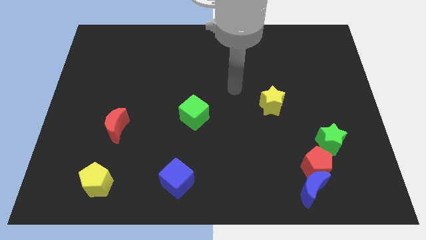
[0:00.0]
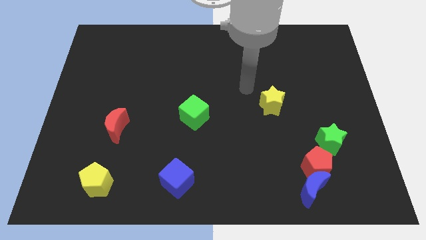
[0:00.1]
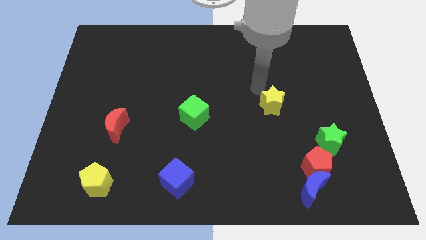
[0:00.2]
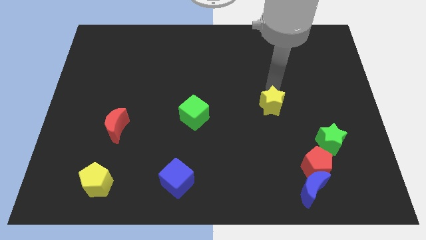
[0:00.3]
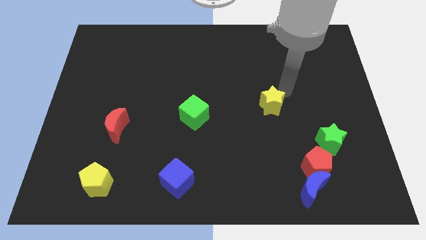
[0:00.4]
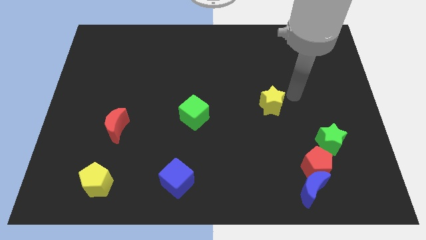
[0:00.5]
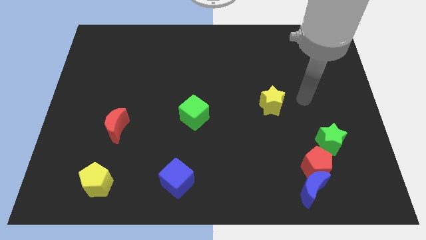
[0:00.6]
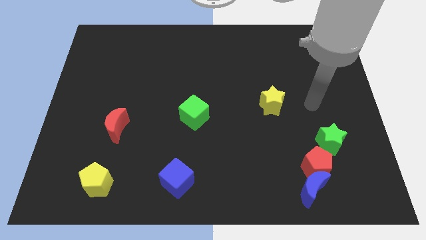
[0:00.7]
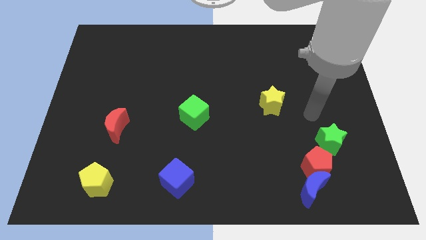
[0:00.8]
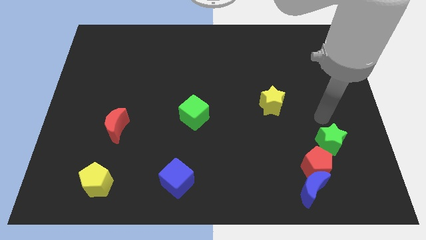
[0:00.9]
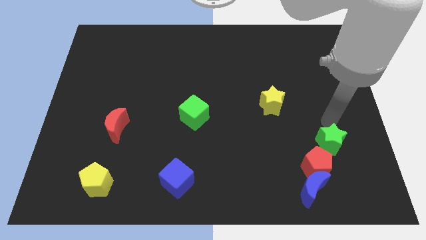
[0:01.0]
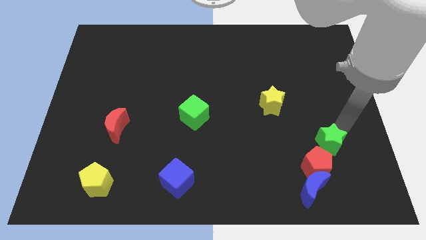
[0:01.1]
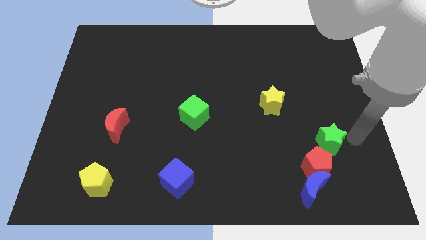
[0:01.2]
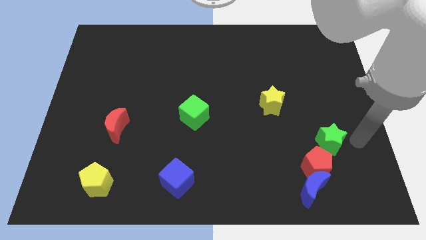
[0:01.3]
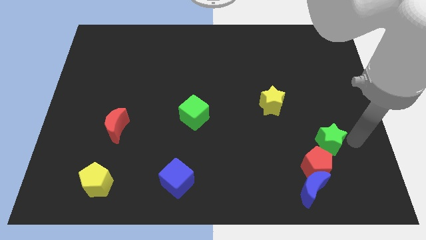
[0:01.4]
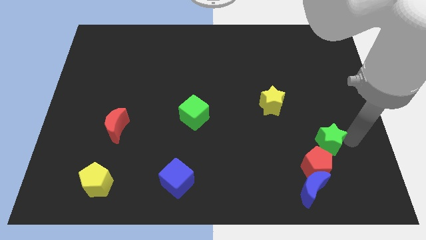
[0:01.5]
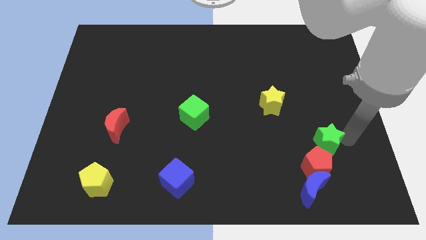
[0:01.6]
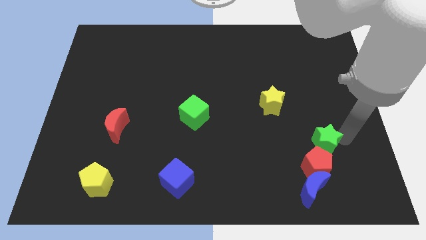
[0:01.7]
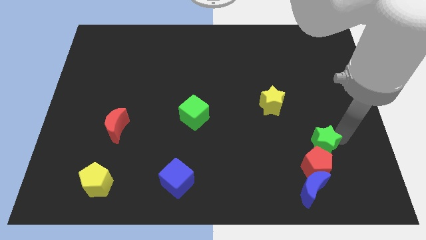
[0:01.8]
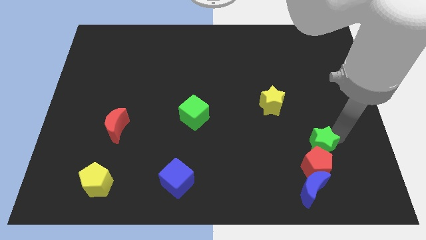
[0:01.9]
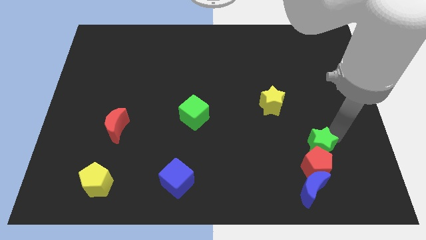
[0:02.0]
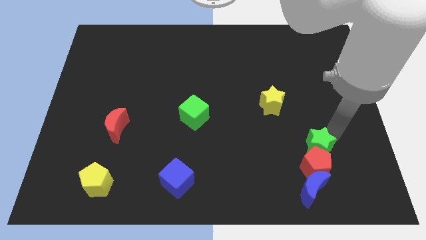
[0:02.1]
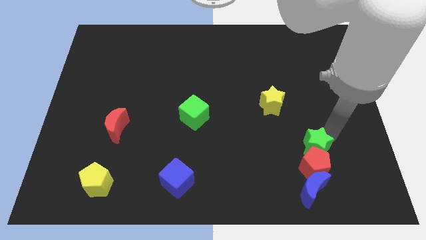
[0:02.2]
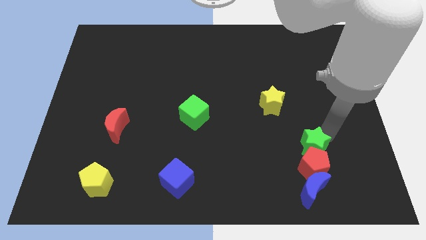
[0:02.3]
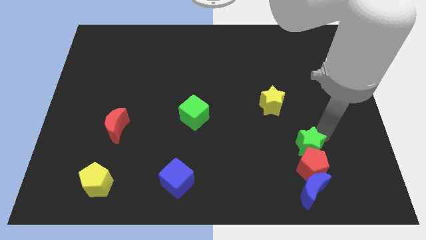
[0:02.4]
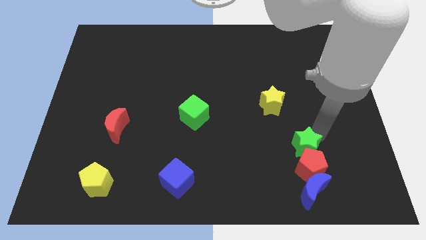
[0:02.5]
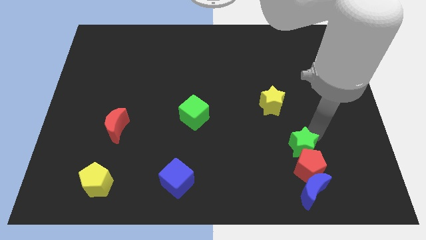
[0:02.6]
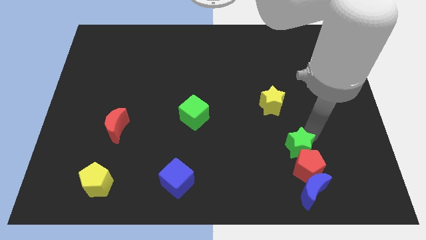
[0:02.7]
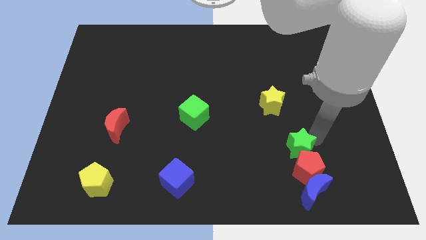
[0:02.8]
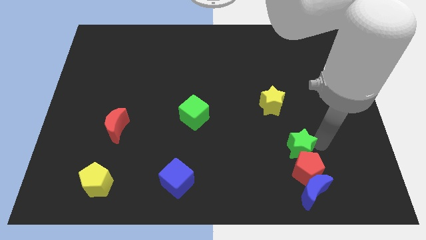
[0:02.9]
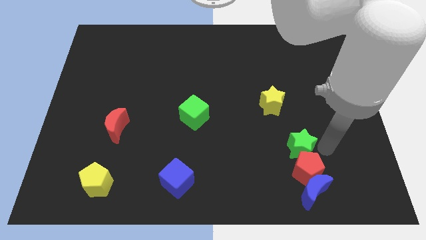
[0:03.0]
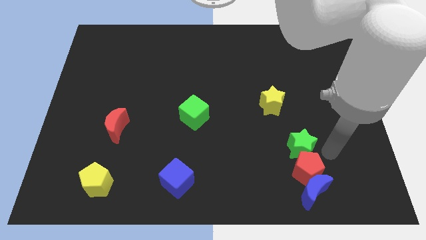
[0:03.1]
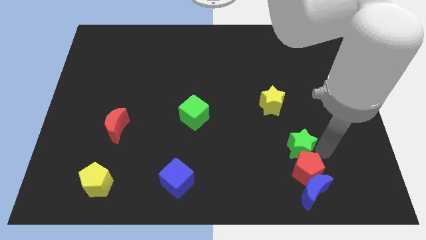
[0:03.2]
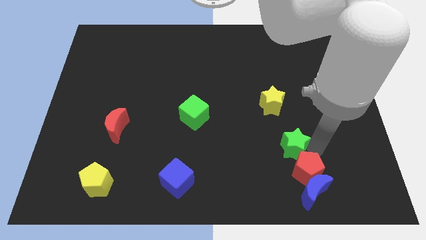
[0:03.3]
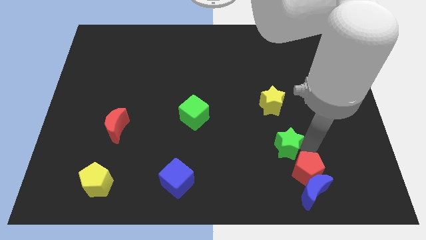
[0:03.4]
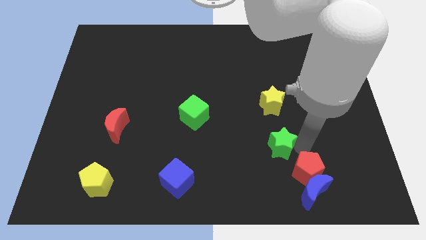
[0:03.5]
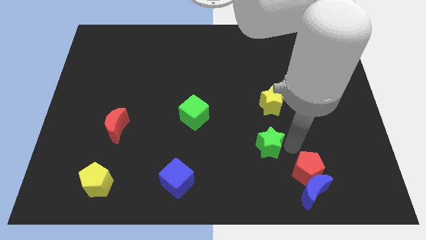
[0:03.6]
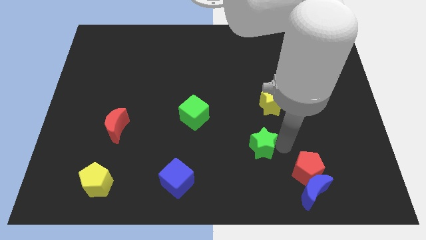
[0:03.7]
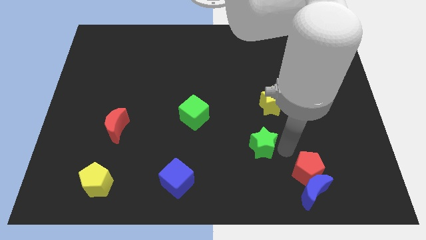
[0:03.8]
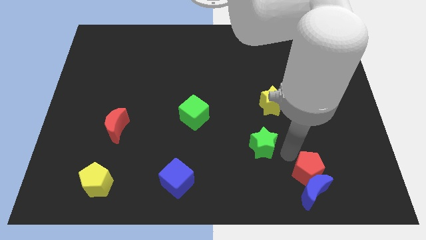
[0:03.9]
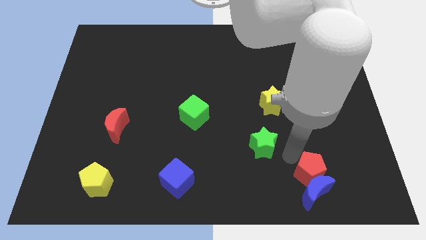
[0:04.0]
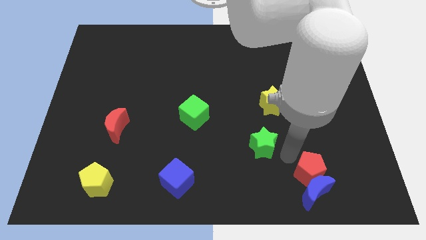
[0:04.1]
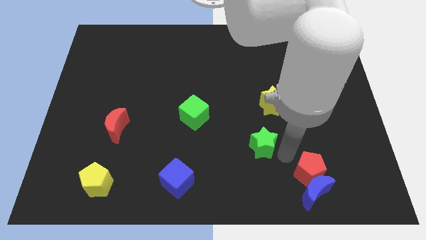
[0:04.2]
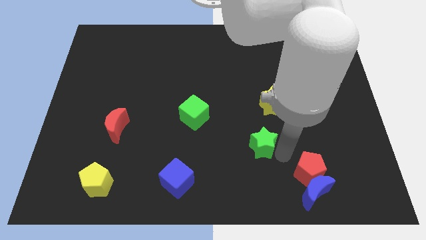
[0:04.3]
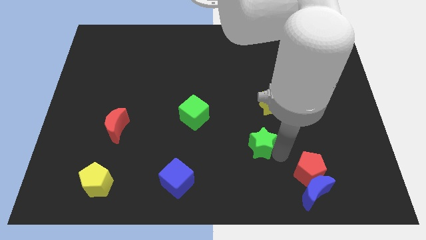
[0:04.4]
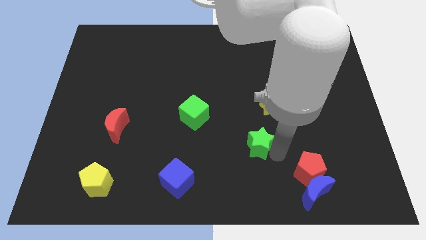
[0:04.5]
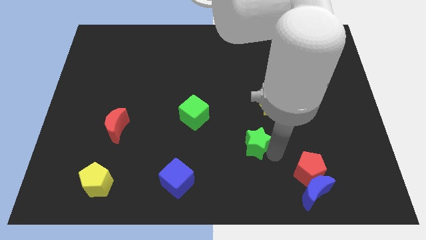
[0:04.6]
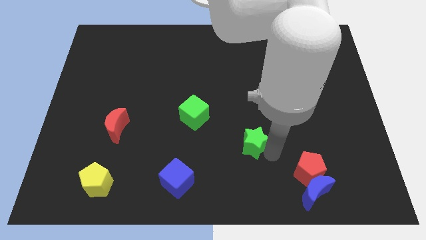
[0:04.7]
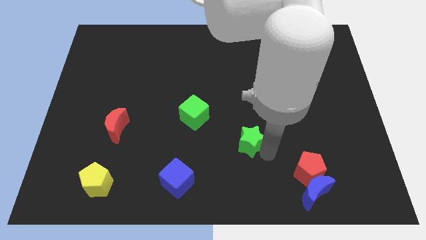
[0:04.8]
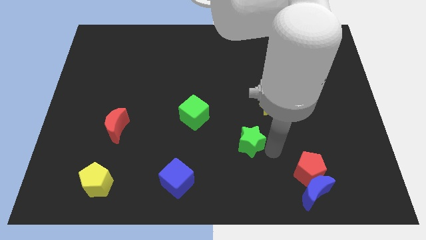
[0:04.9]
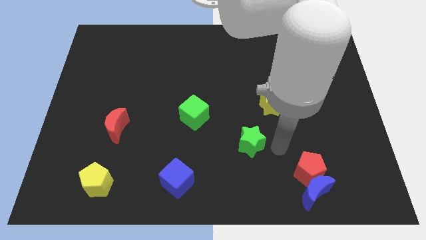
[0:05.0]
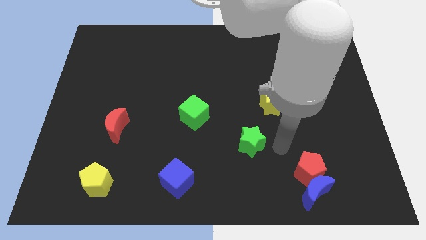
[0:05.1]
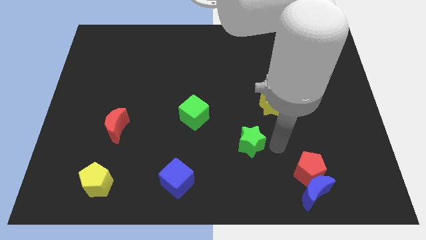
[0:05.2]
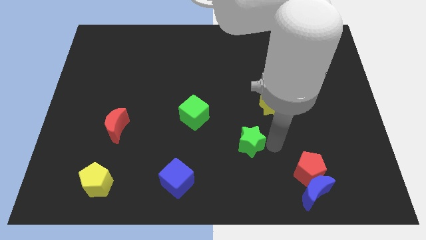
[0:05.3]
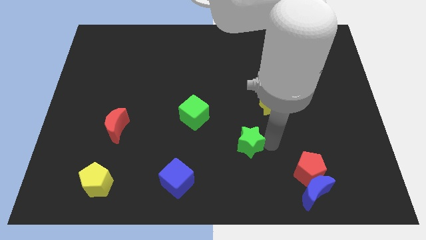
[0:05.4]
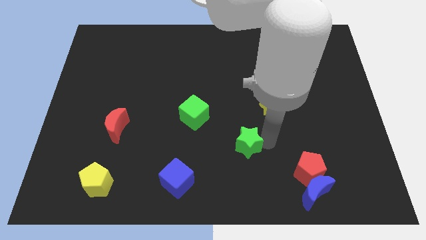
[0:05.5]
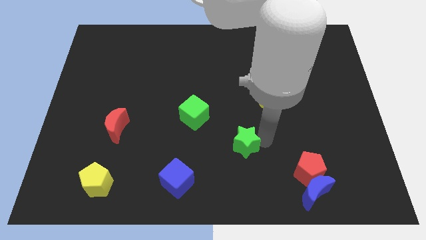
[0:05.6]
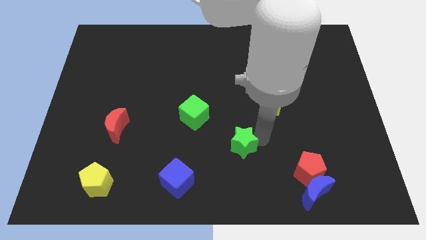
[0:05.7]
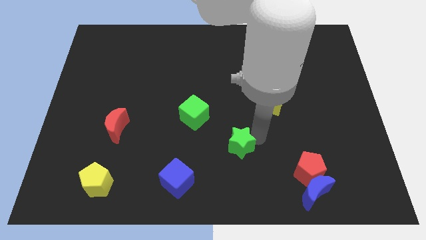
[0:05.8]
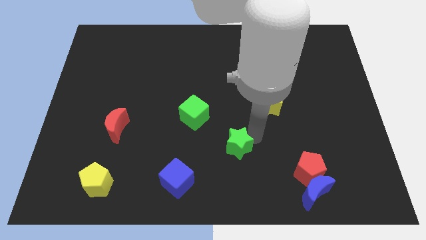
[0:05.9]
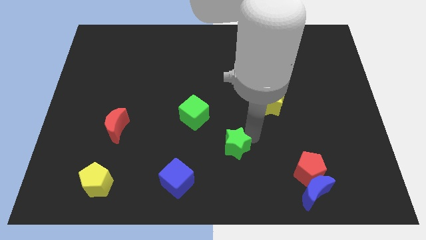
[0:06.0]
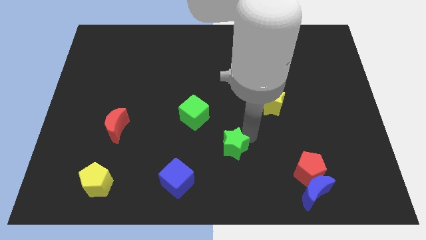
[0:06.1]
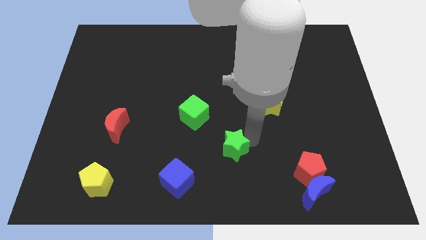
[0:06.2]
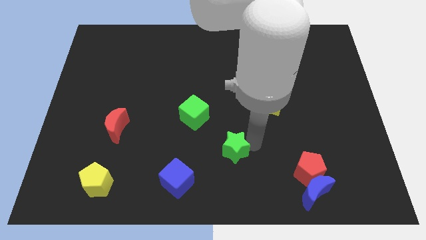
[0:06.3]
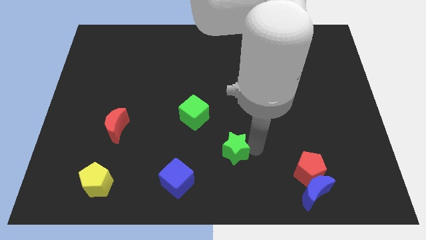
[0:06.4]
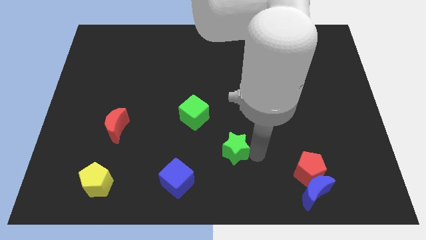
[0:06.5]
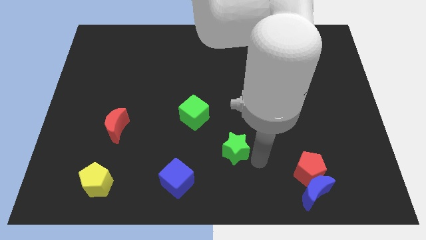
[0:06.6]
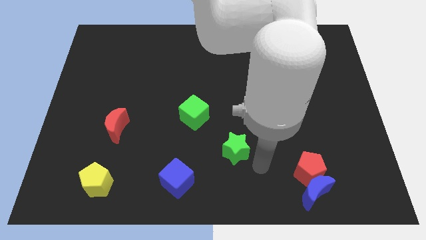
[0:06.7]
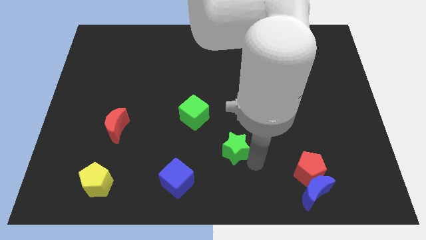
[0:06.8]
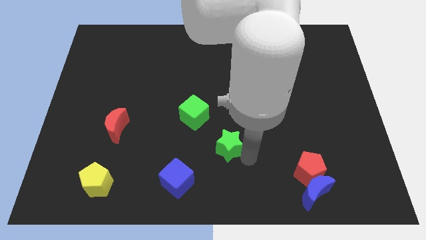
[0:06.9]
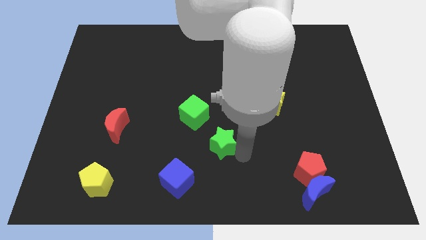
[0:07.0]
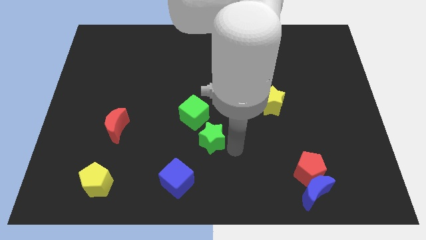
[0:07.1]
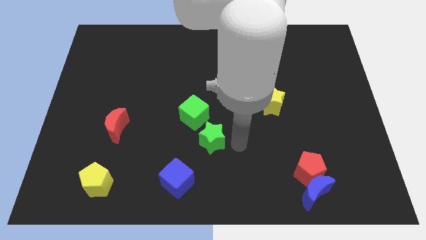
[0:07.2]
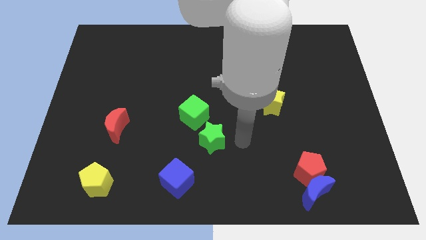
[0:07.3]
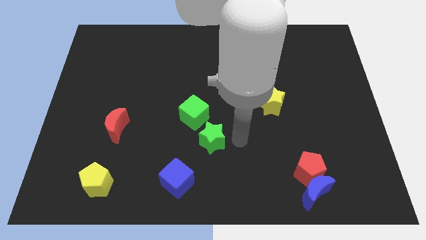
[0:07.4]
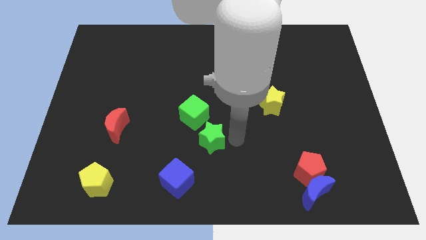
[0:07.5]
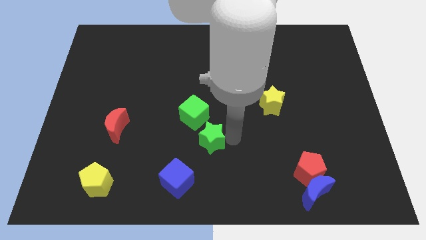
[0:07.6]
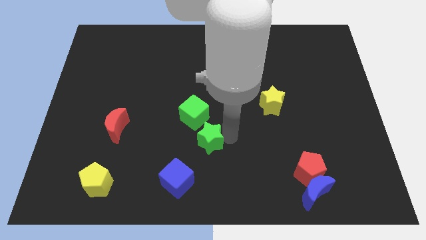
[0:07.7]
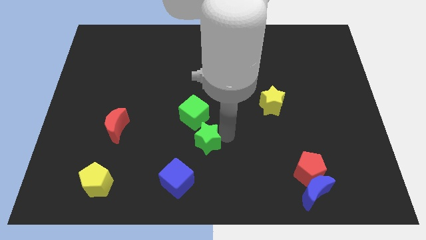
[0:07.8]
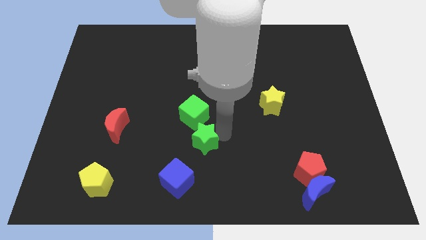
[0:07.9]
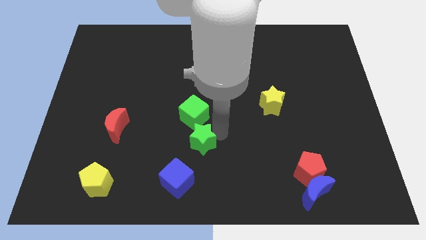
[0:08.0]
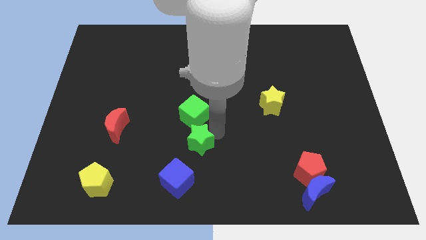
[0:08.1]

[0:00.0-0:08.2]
put the green star above the blue cube
